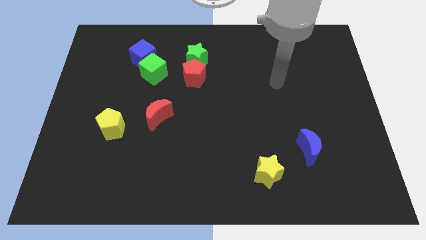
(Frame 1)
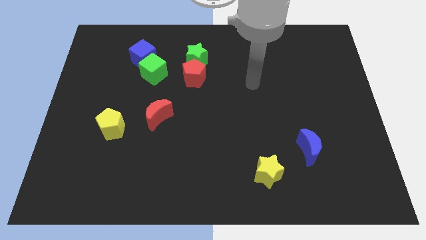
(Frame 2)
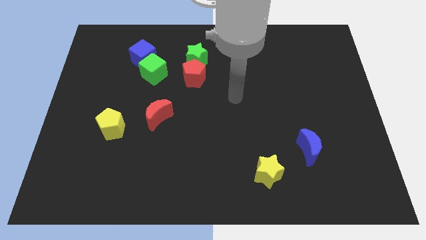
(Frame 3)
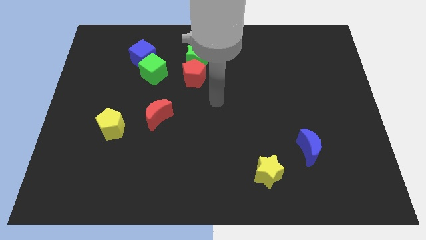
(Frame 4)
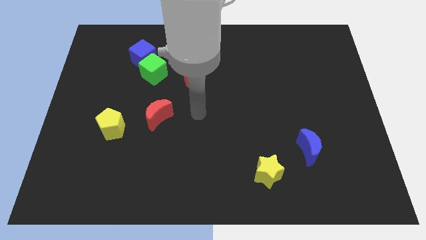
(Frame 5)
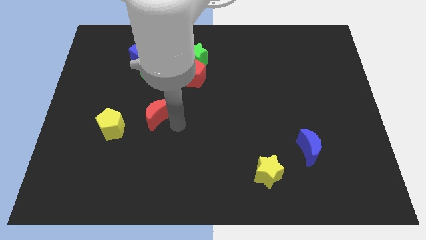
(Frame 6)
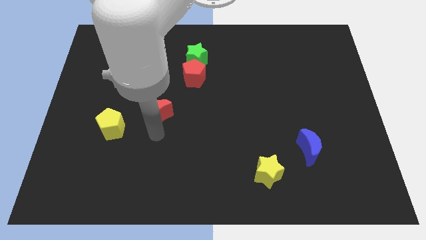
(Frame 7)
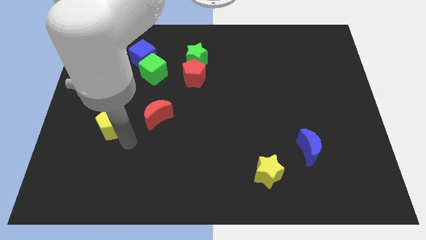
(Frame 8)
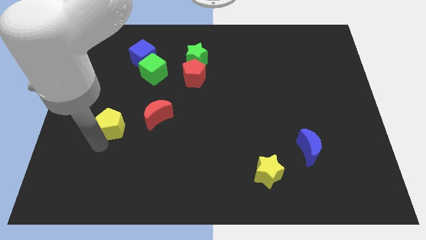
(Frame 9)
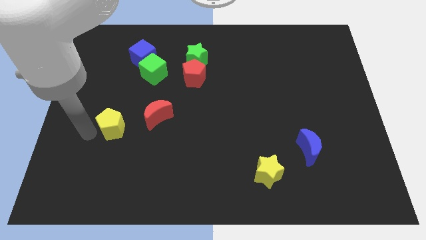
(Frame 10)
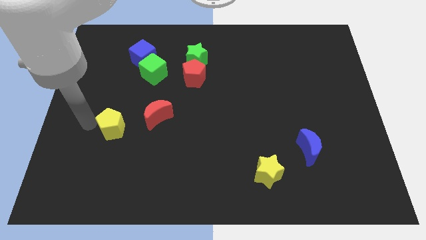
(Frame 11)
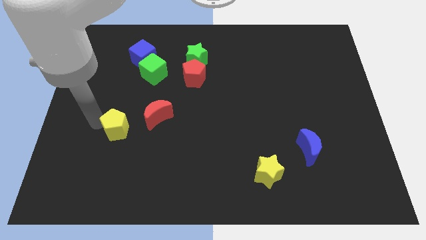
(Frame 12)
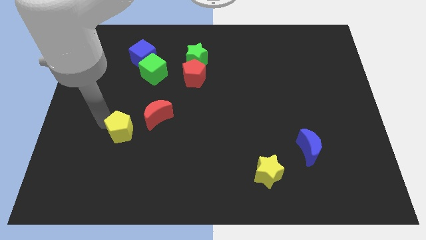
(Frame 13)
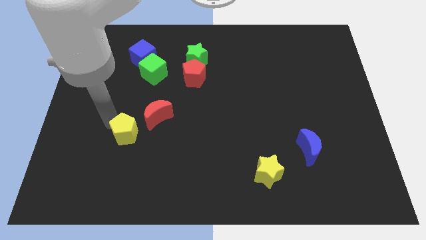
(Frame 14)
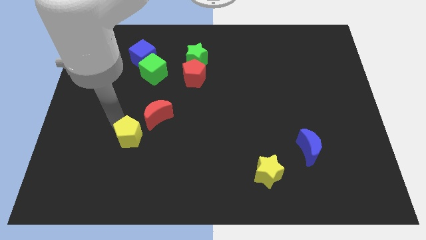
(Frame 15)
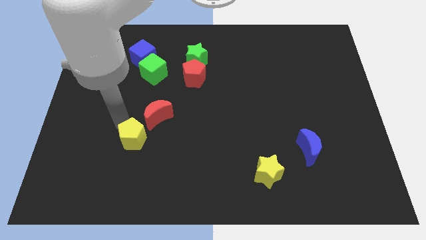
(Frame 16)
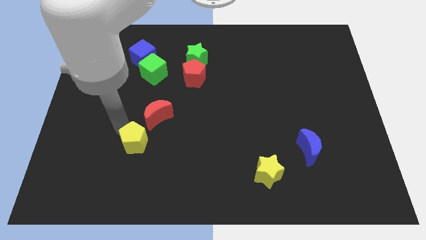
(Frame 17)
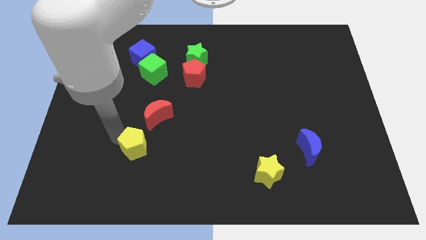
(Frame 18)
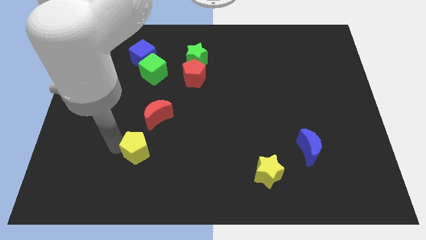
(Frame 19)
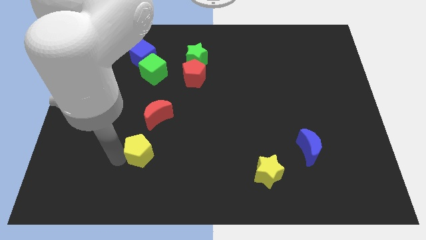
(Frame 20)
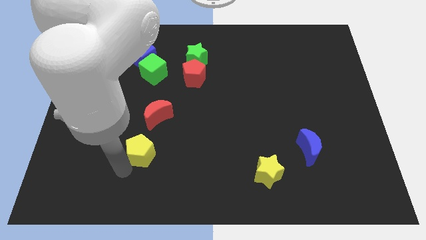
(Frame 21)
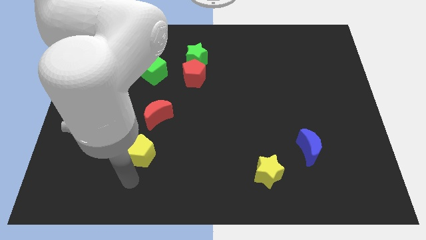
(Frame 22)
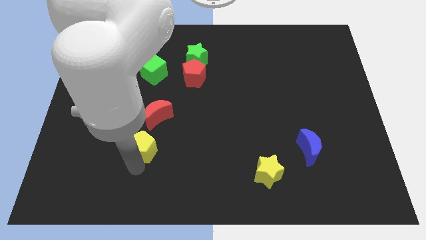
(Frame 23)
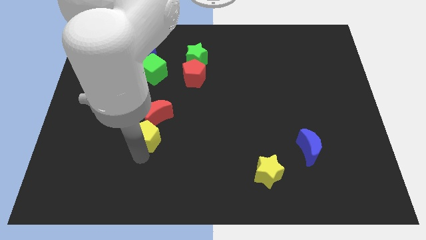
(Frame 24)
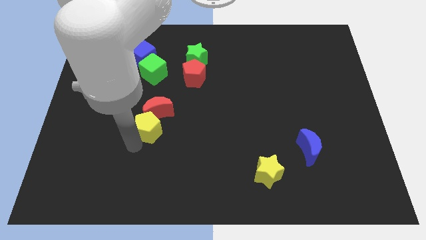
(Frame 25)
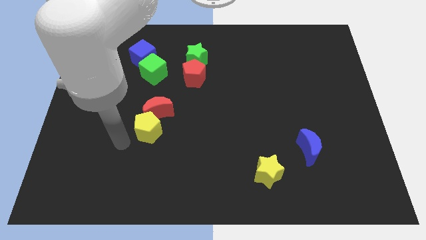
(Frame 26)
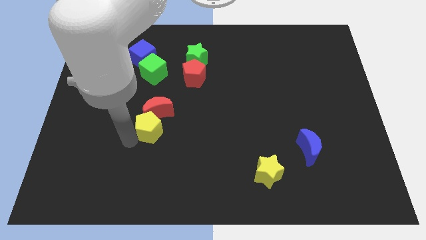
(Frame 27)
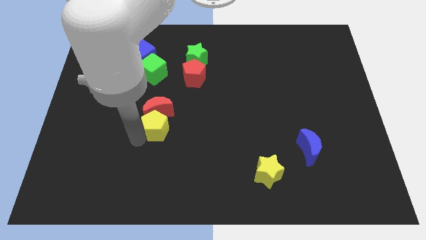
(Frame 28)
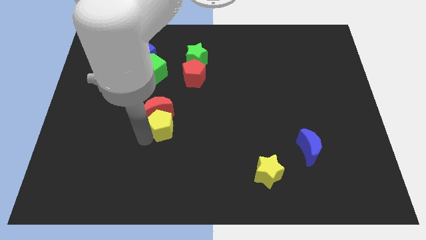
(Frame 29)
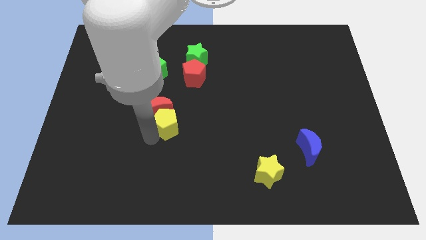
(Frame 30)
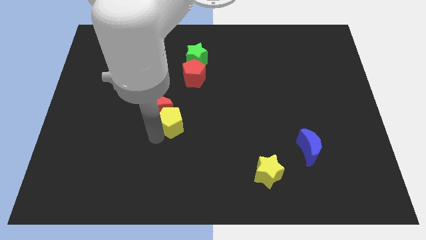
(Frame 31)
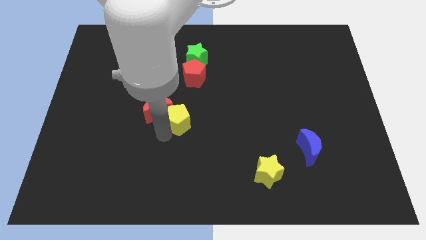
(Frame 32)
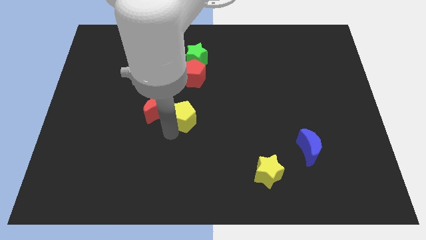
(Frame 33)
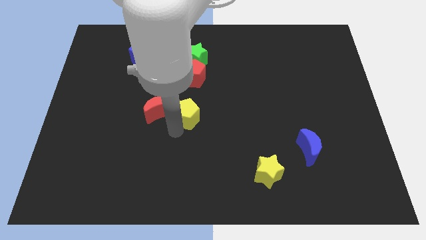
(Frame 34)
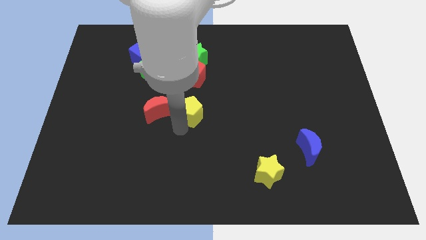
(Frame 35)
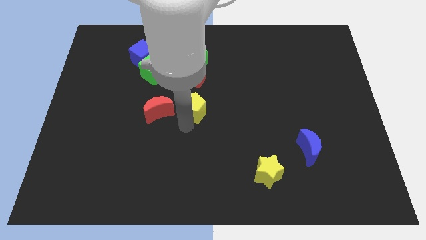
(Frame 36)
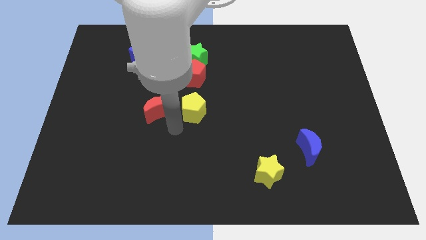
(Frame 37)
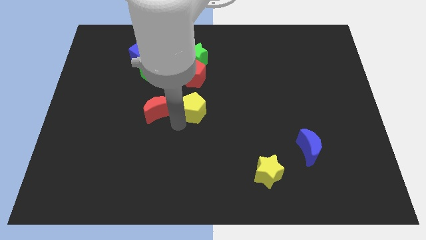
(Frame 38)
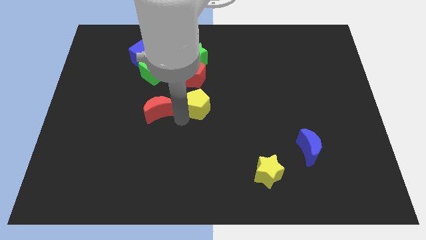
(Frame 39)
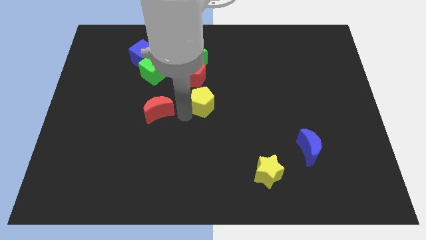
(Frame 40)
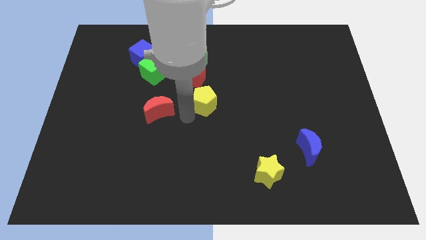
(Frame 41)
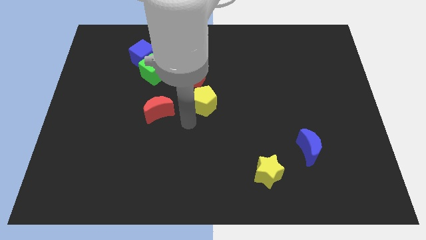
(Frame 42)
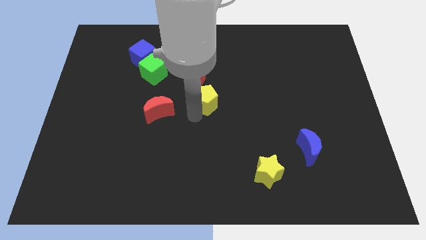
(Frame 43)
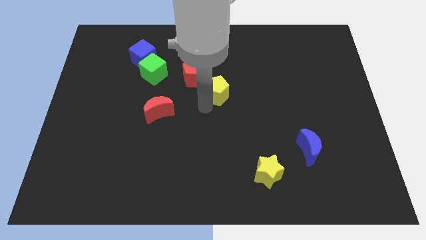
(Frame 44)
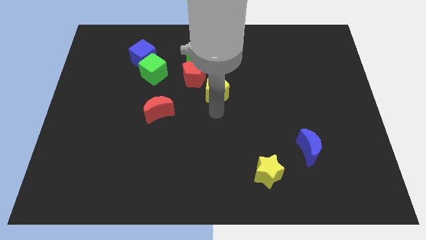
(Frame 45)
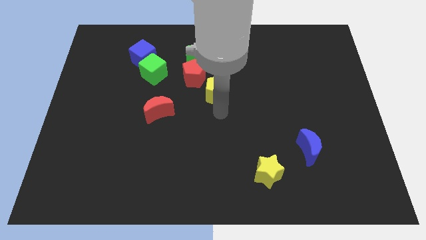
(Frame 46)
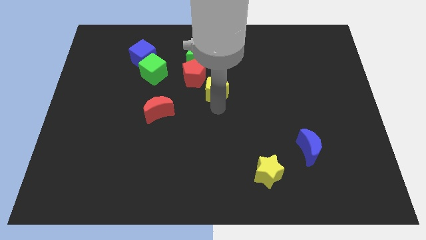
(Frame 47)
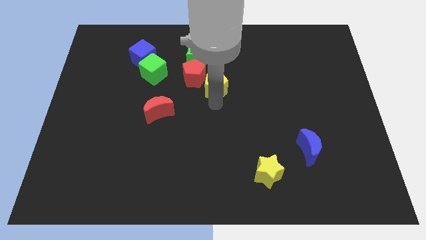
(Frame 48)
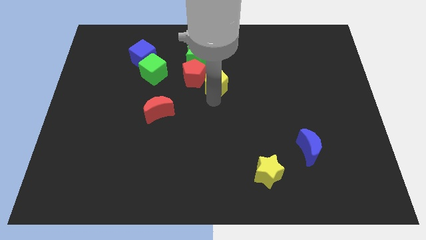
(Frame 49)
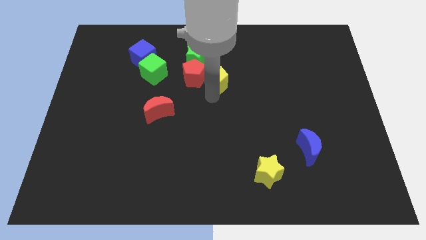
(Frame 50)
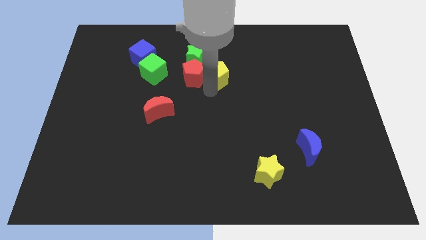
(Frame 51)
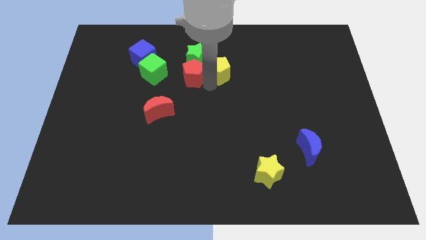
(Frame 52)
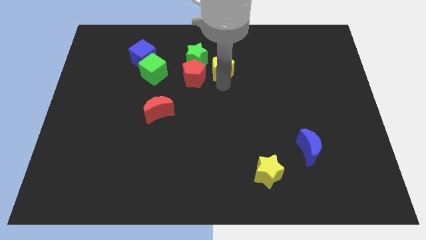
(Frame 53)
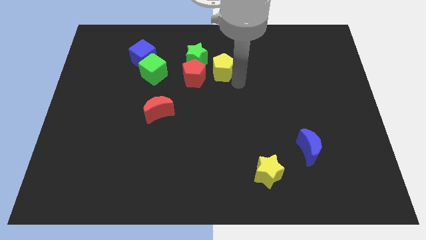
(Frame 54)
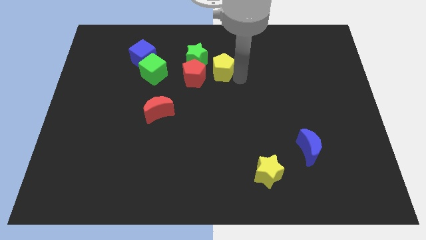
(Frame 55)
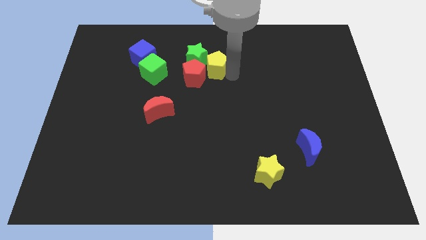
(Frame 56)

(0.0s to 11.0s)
put the yellow pentagon towards the green star

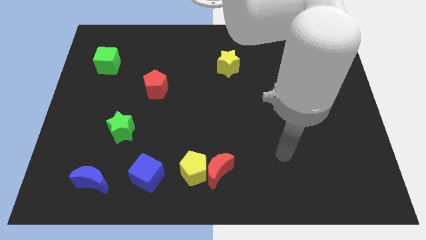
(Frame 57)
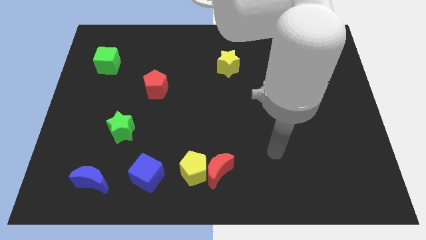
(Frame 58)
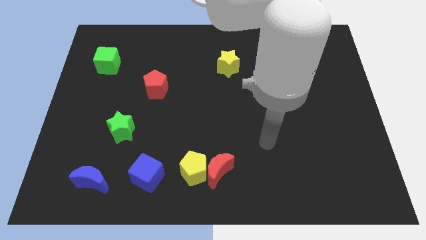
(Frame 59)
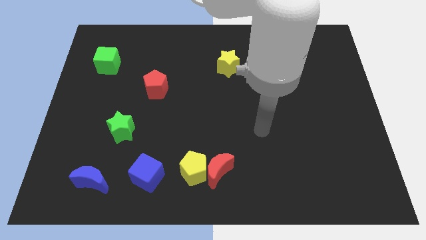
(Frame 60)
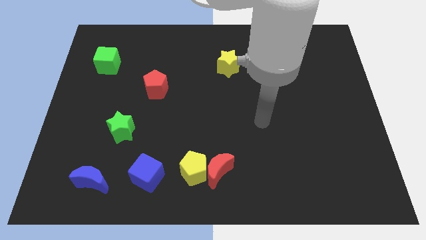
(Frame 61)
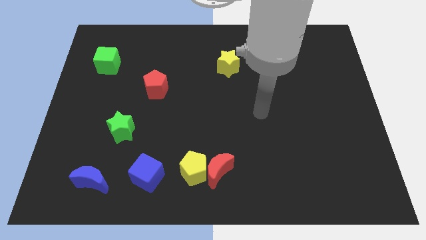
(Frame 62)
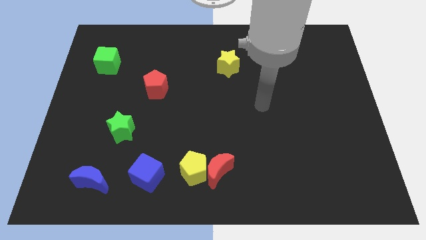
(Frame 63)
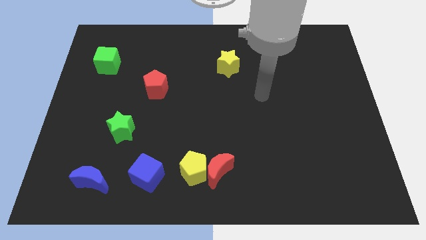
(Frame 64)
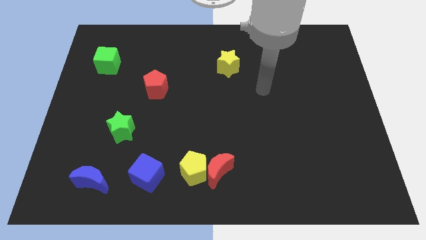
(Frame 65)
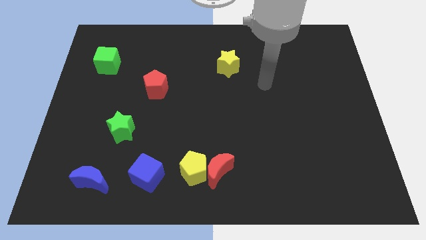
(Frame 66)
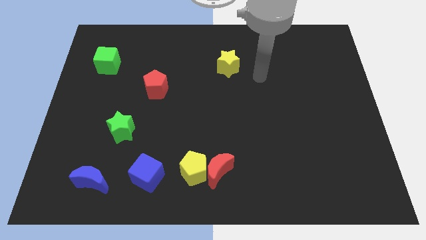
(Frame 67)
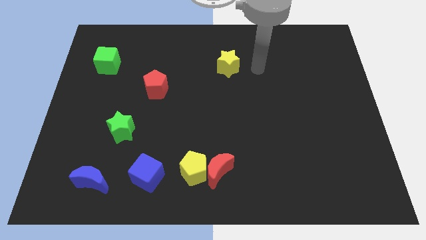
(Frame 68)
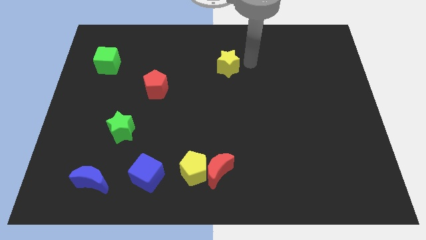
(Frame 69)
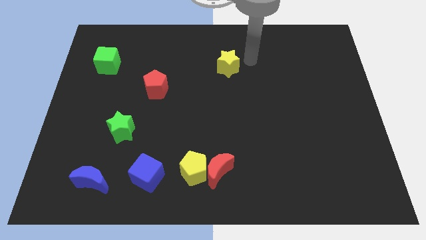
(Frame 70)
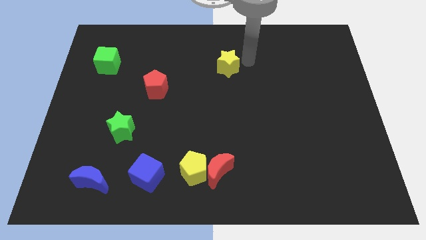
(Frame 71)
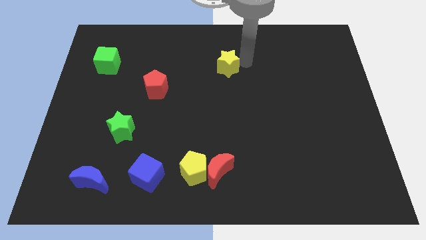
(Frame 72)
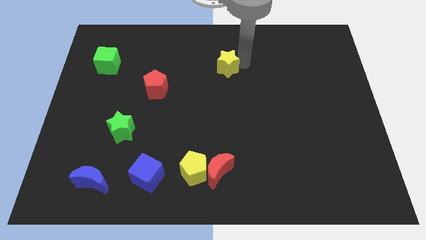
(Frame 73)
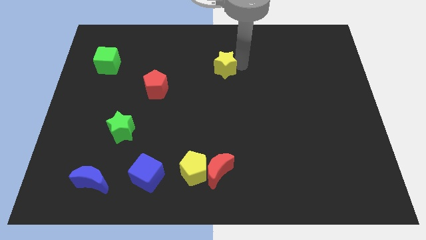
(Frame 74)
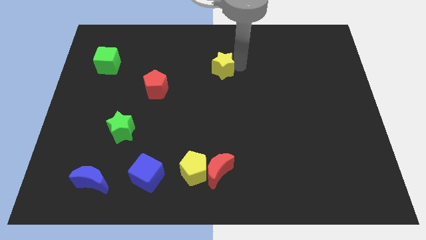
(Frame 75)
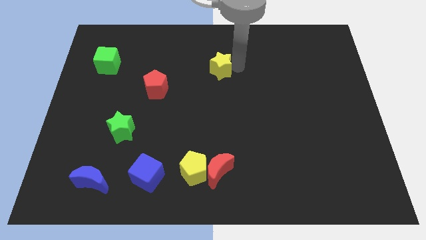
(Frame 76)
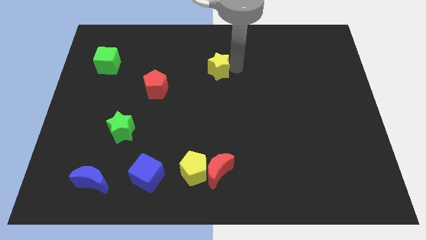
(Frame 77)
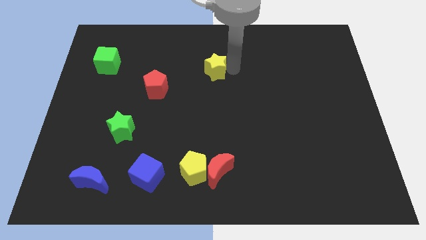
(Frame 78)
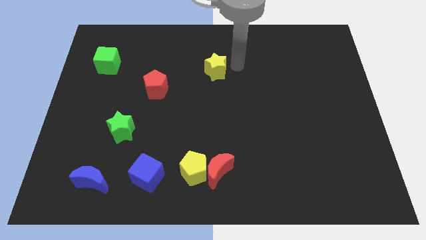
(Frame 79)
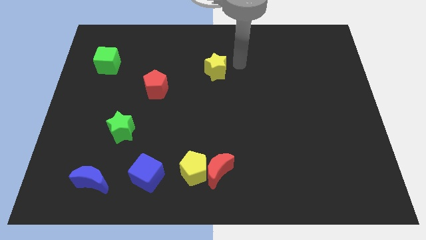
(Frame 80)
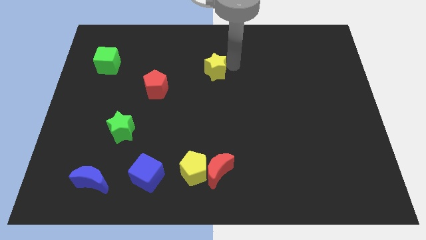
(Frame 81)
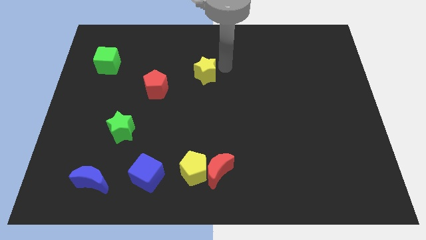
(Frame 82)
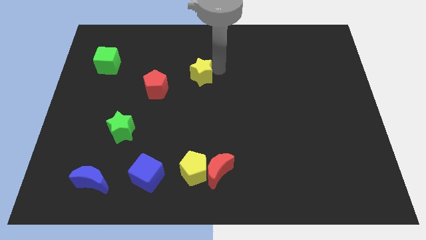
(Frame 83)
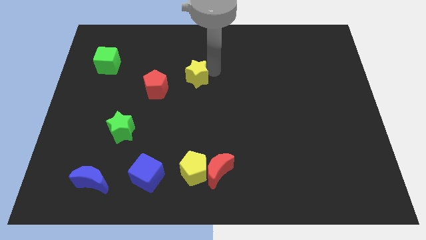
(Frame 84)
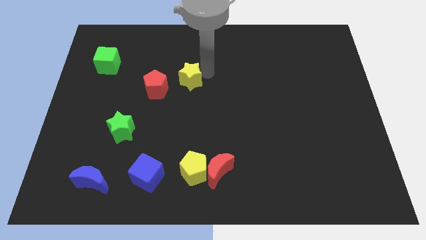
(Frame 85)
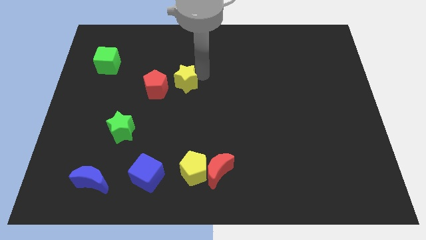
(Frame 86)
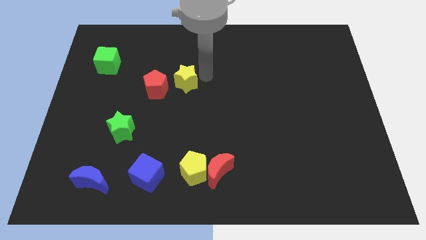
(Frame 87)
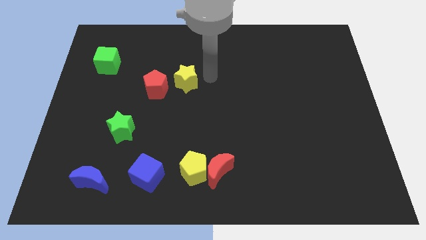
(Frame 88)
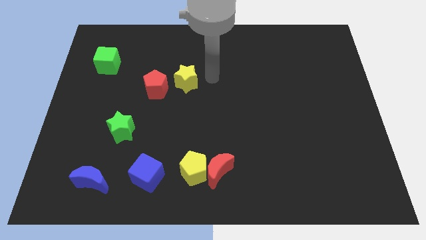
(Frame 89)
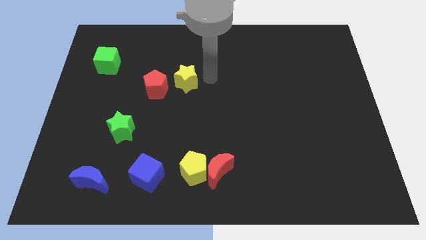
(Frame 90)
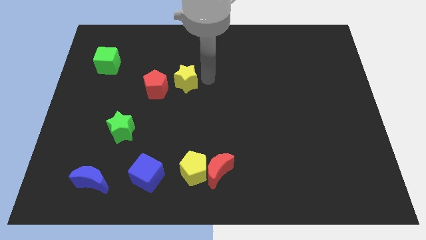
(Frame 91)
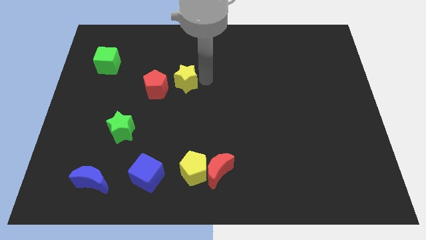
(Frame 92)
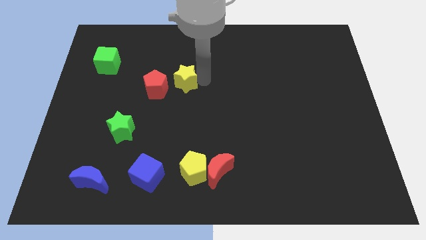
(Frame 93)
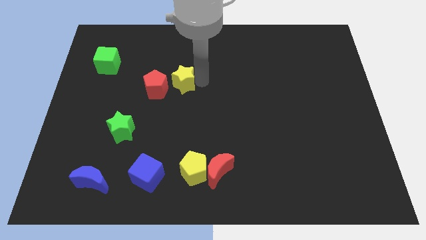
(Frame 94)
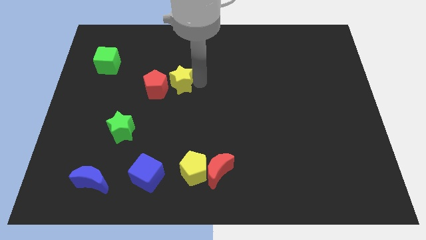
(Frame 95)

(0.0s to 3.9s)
push the yellow star to the red pentagon
